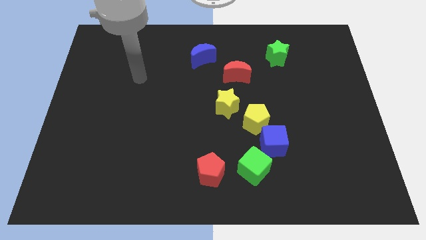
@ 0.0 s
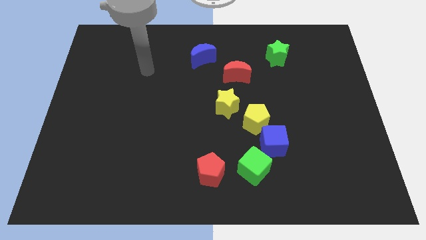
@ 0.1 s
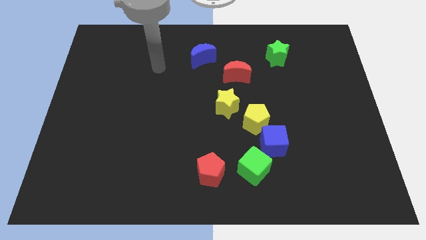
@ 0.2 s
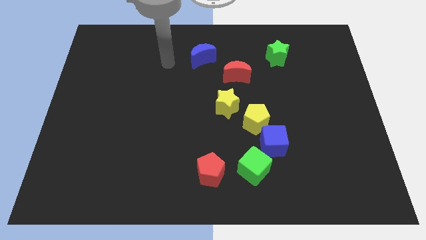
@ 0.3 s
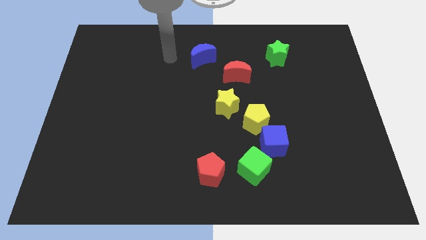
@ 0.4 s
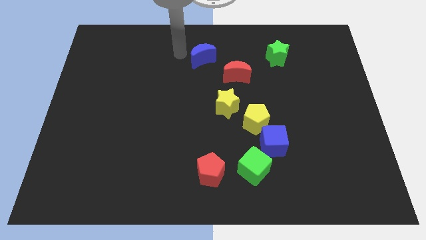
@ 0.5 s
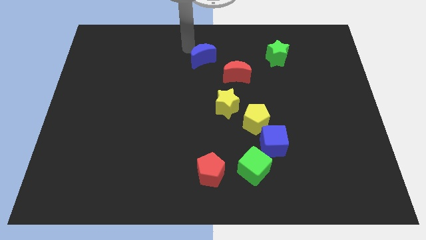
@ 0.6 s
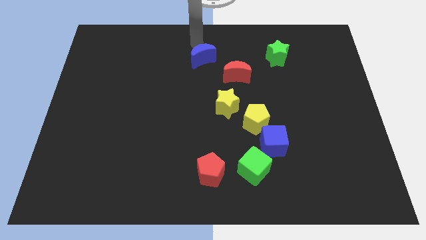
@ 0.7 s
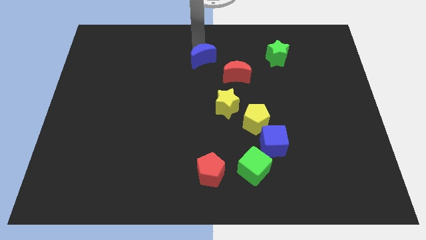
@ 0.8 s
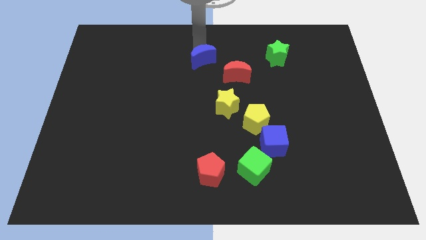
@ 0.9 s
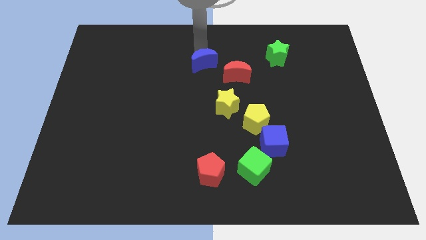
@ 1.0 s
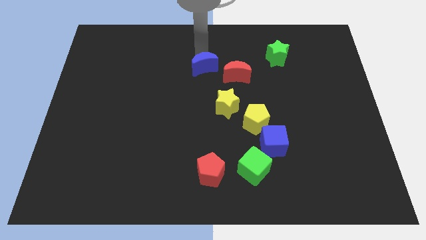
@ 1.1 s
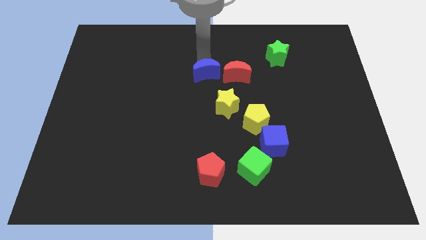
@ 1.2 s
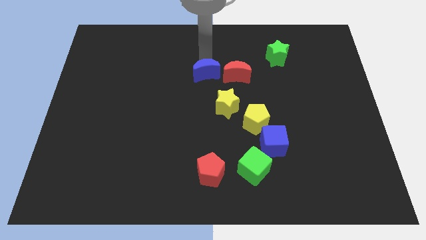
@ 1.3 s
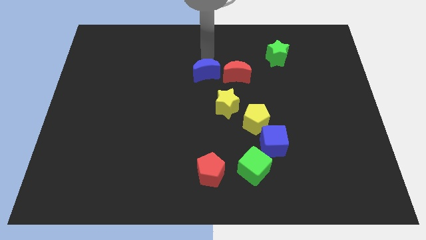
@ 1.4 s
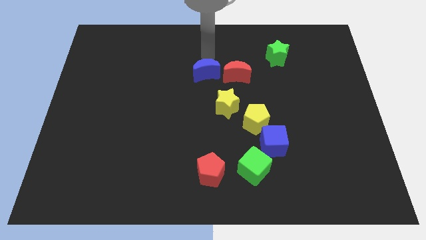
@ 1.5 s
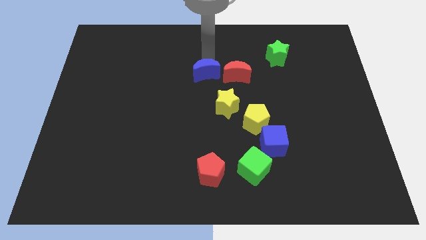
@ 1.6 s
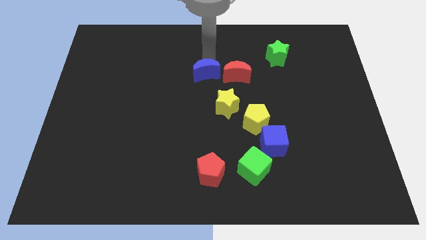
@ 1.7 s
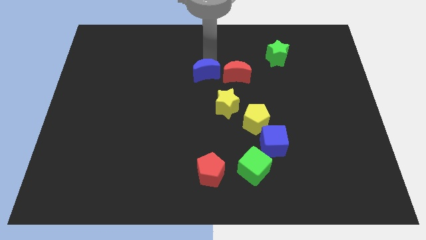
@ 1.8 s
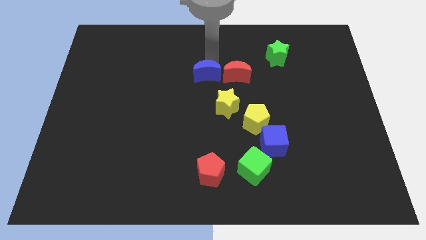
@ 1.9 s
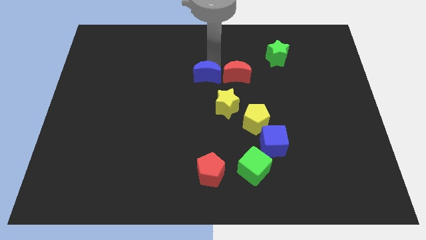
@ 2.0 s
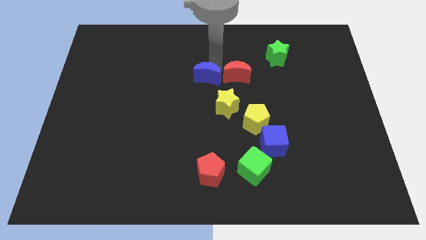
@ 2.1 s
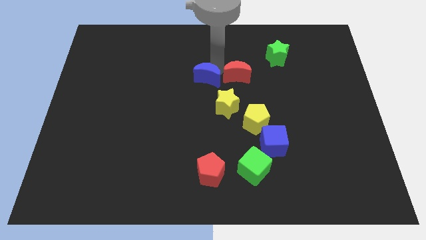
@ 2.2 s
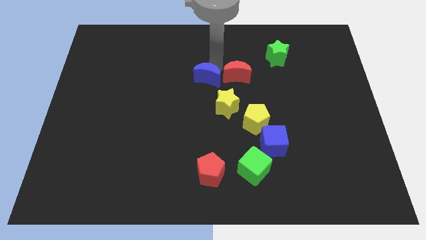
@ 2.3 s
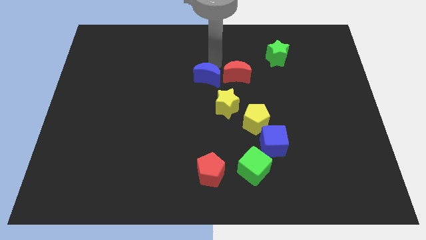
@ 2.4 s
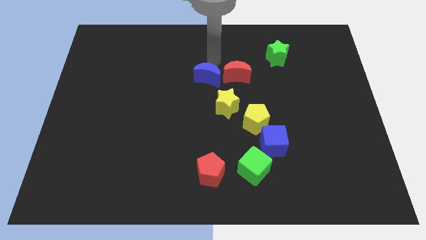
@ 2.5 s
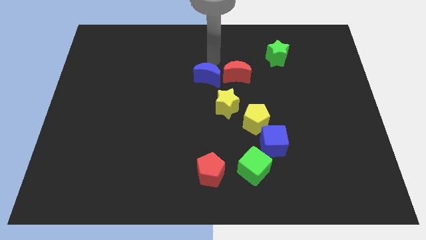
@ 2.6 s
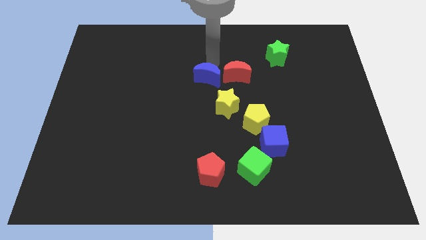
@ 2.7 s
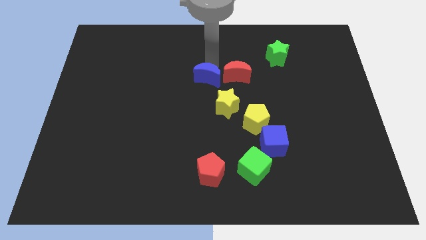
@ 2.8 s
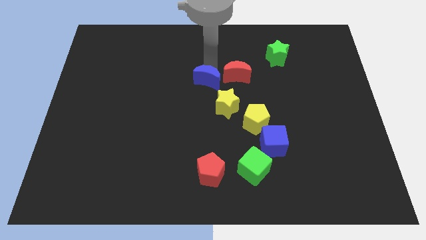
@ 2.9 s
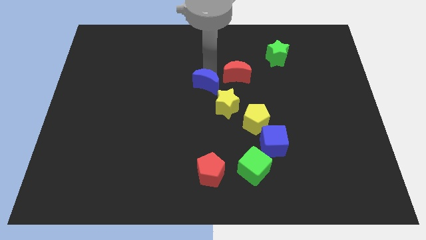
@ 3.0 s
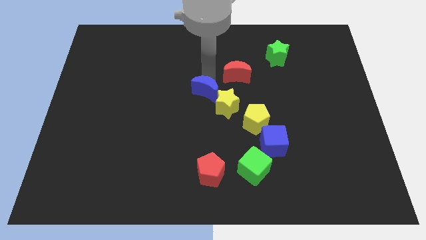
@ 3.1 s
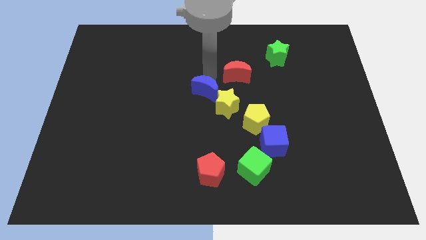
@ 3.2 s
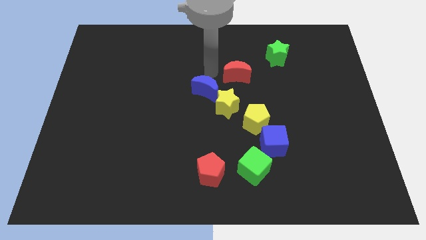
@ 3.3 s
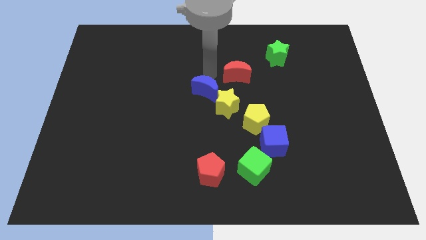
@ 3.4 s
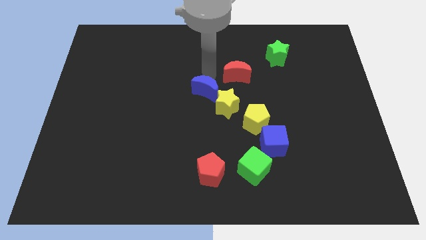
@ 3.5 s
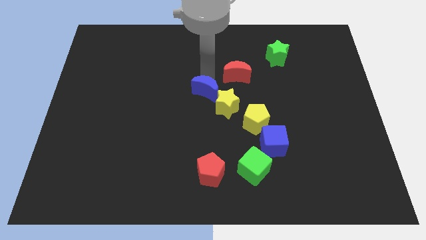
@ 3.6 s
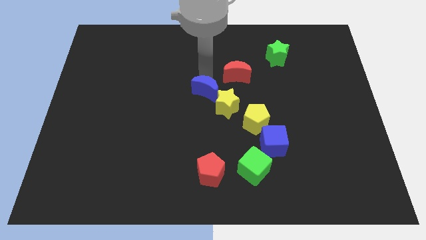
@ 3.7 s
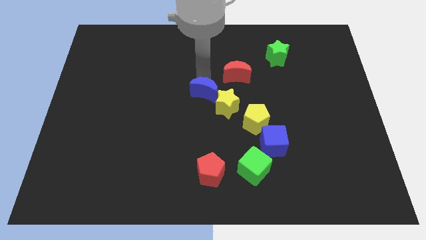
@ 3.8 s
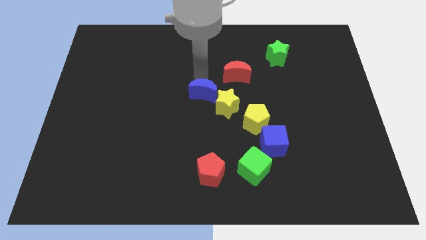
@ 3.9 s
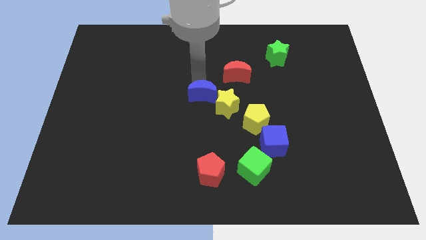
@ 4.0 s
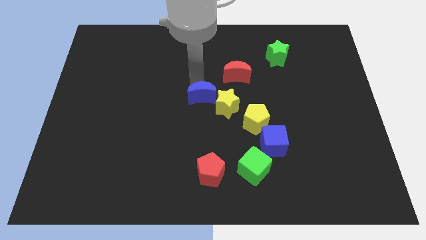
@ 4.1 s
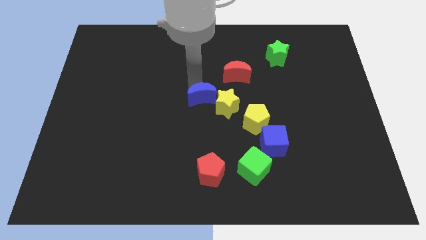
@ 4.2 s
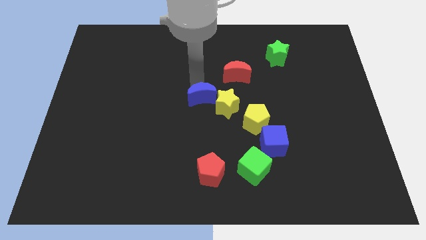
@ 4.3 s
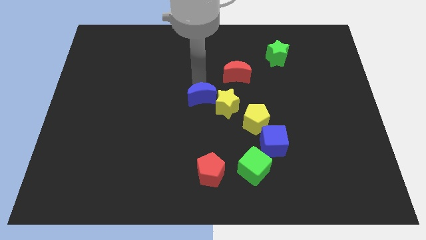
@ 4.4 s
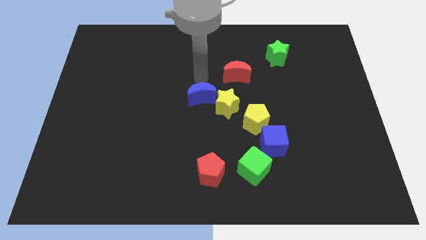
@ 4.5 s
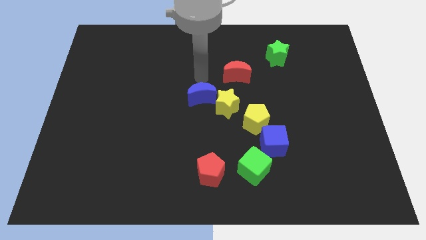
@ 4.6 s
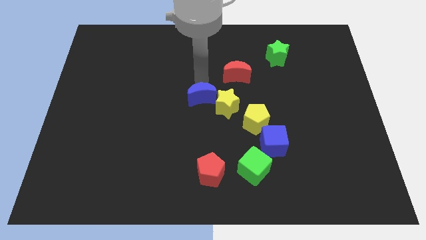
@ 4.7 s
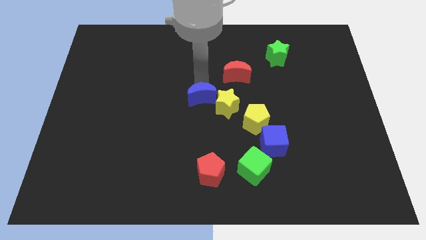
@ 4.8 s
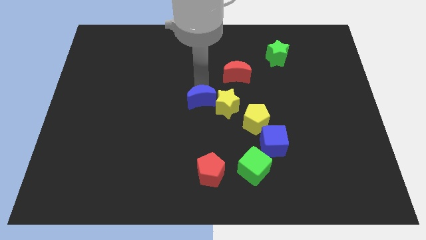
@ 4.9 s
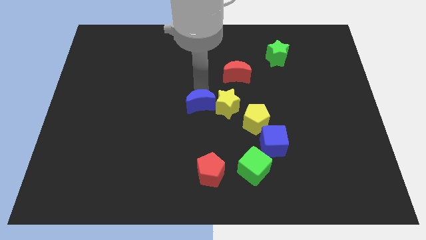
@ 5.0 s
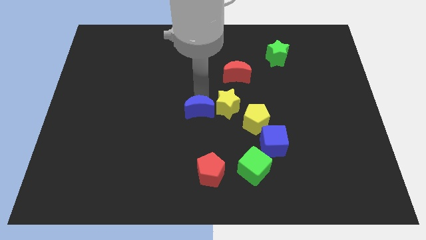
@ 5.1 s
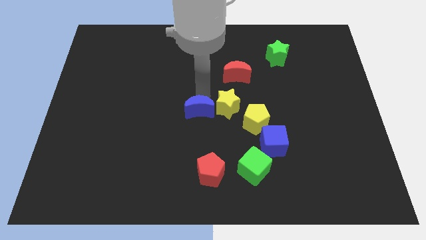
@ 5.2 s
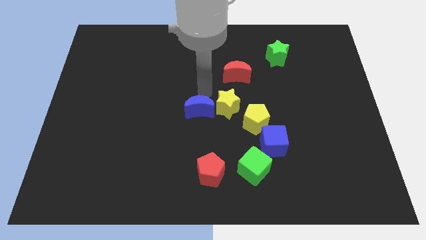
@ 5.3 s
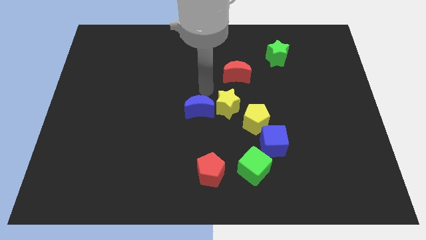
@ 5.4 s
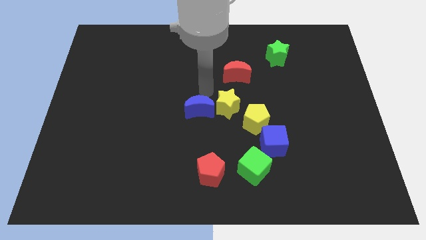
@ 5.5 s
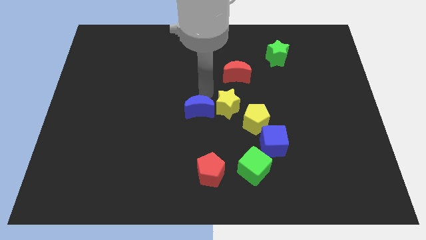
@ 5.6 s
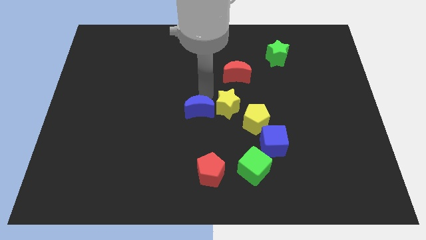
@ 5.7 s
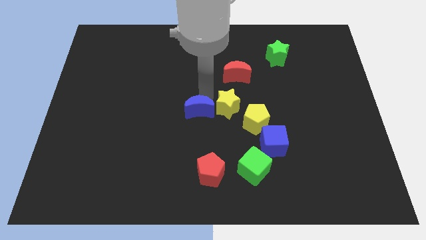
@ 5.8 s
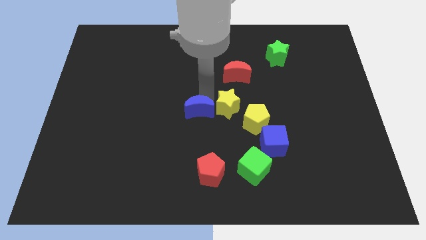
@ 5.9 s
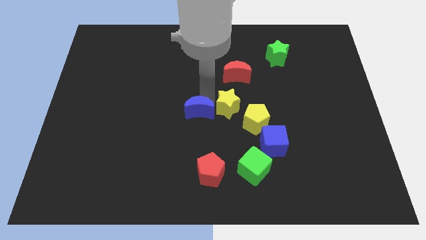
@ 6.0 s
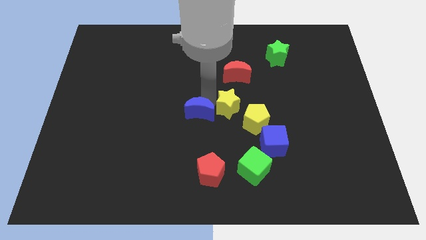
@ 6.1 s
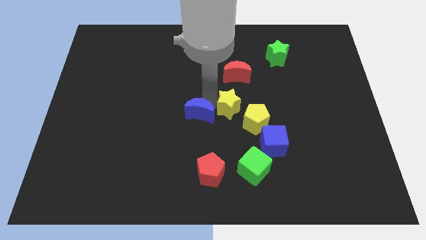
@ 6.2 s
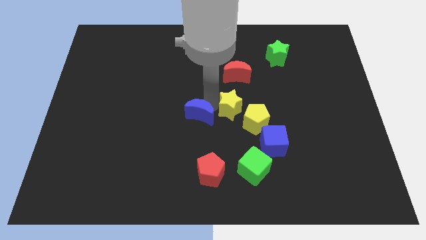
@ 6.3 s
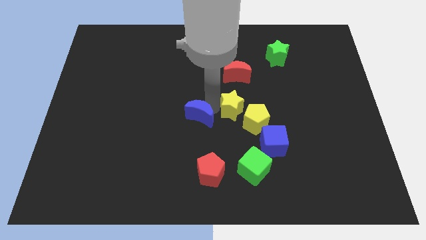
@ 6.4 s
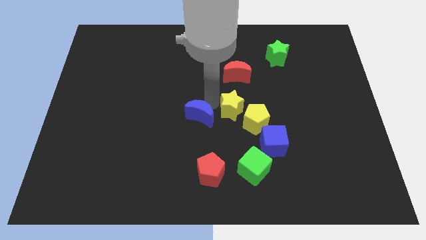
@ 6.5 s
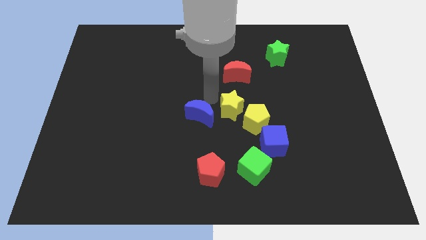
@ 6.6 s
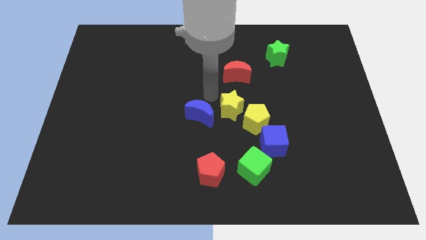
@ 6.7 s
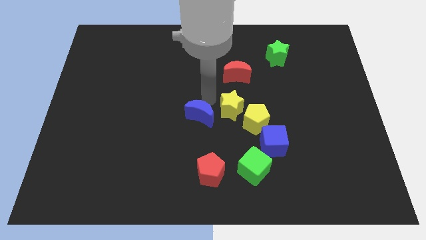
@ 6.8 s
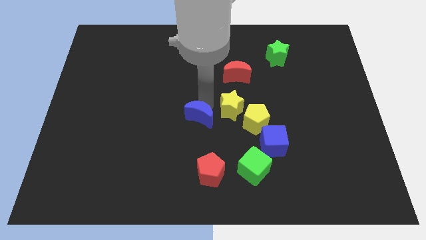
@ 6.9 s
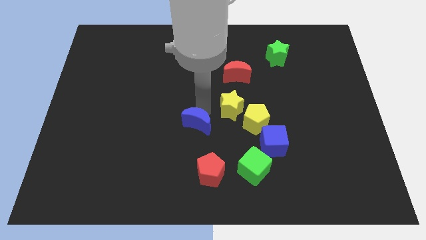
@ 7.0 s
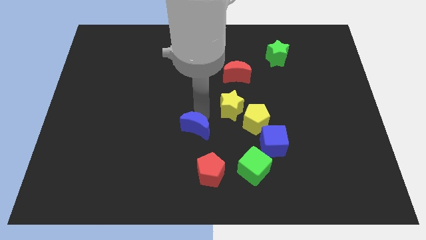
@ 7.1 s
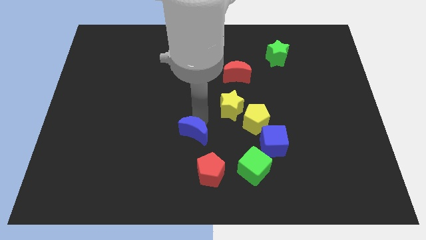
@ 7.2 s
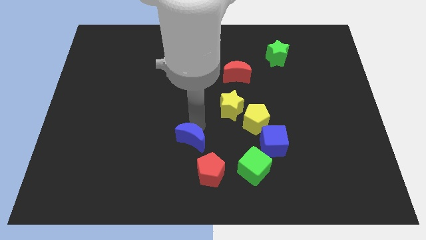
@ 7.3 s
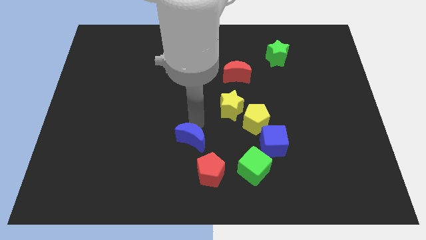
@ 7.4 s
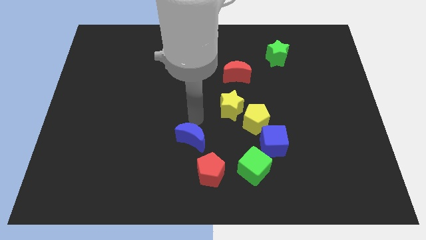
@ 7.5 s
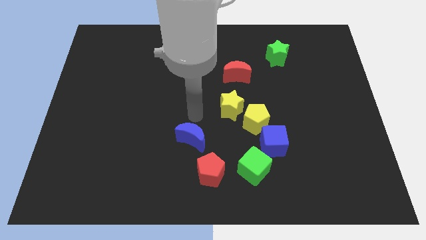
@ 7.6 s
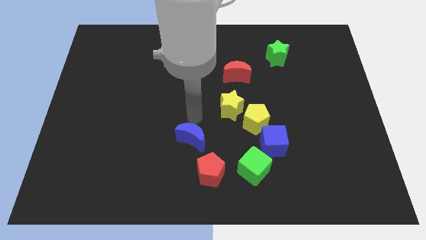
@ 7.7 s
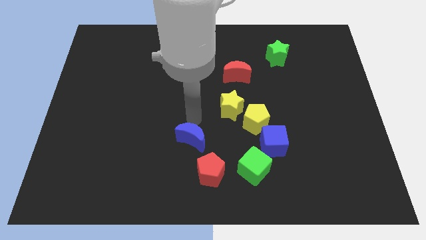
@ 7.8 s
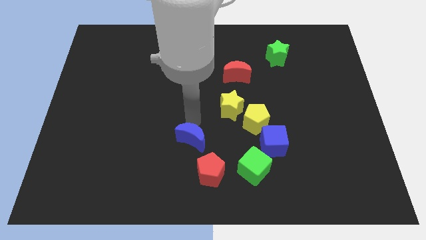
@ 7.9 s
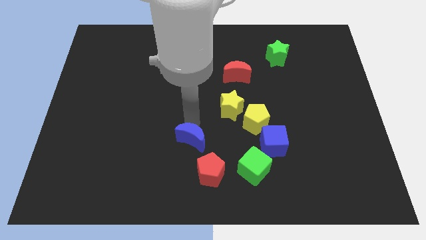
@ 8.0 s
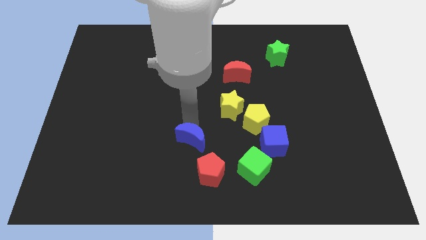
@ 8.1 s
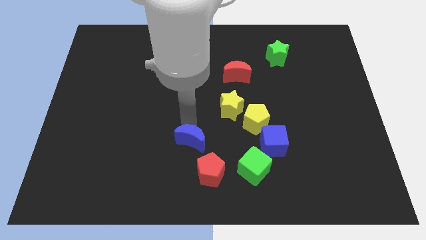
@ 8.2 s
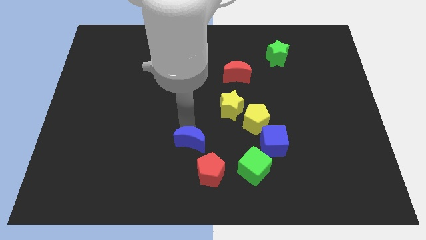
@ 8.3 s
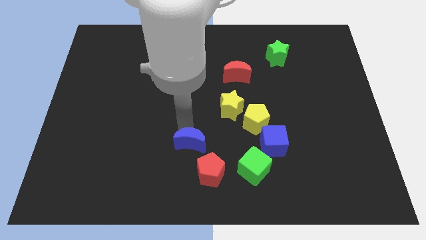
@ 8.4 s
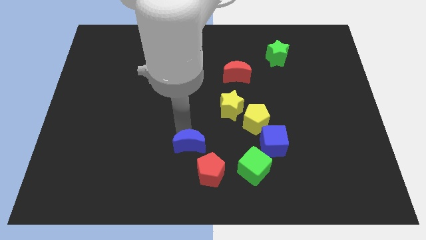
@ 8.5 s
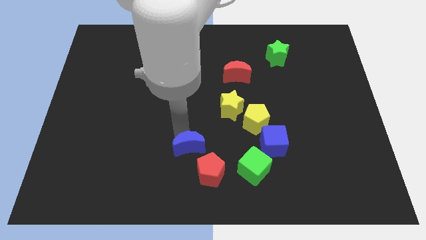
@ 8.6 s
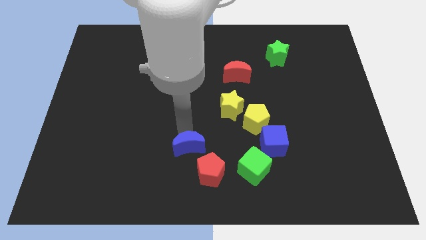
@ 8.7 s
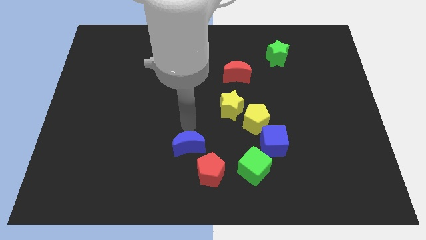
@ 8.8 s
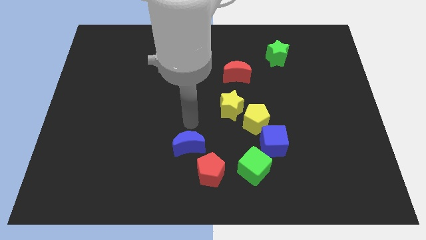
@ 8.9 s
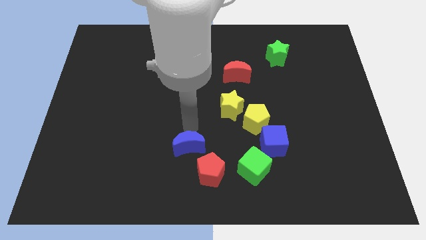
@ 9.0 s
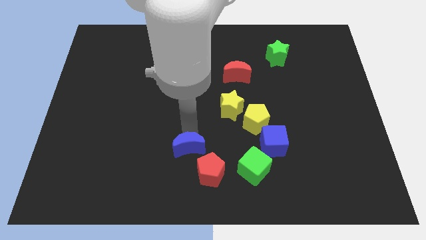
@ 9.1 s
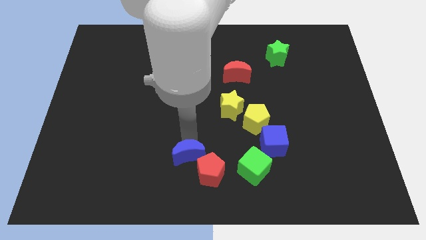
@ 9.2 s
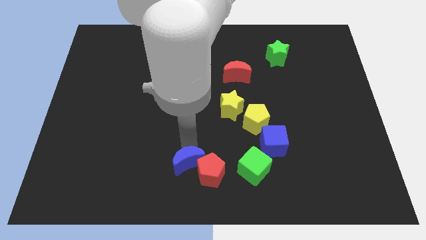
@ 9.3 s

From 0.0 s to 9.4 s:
put the blue moon to the bottom side
